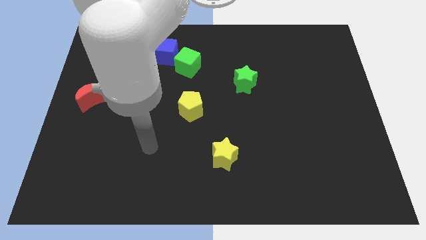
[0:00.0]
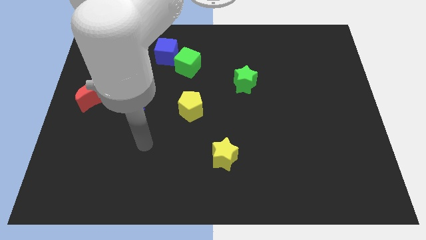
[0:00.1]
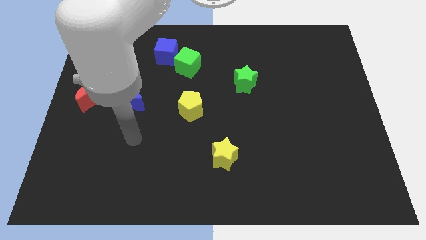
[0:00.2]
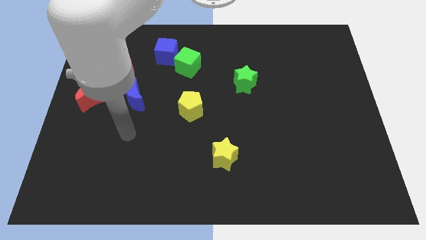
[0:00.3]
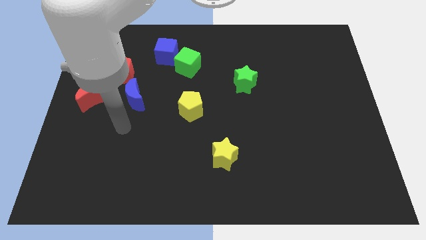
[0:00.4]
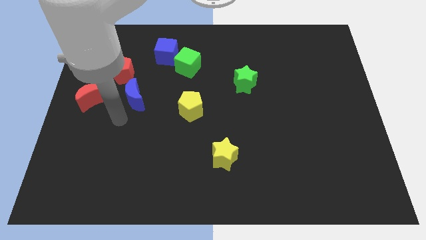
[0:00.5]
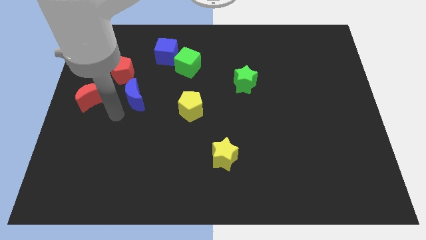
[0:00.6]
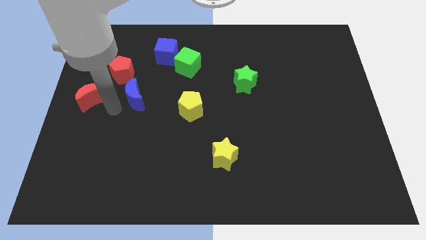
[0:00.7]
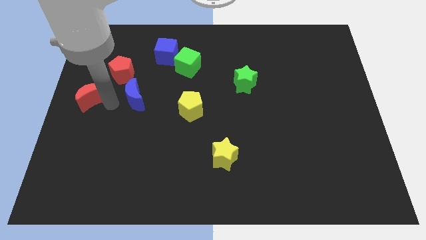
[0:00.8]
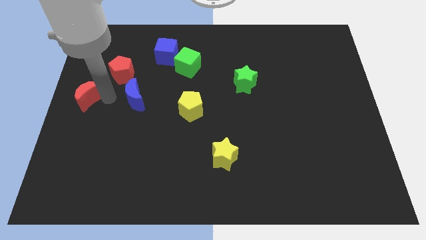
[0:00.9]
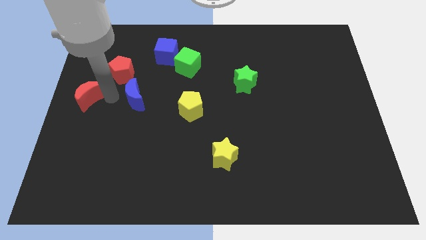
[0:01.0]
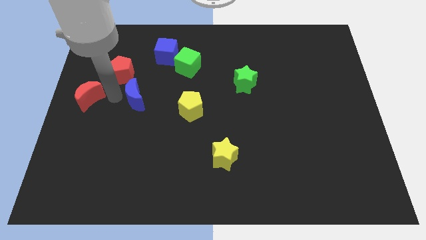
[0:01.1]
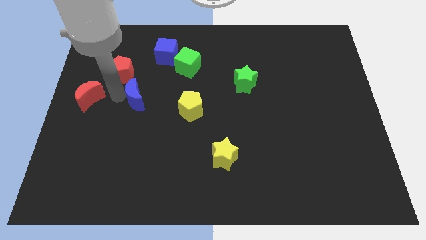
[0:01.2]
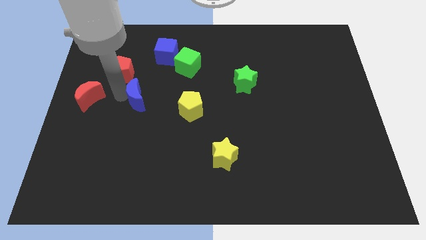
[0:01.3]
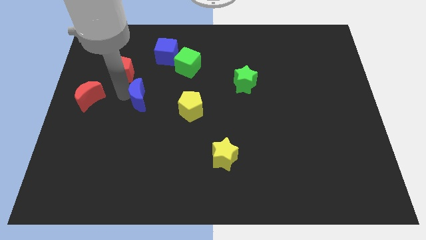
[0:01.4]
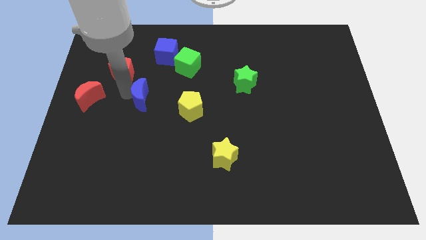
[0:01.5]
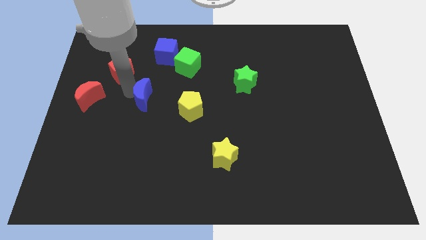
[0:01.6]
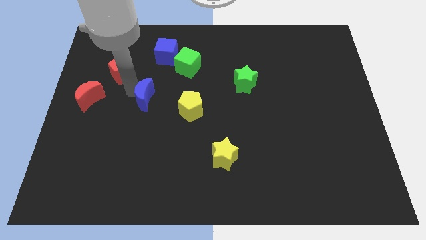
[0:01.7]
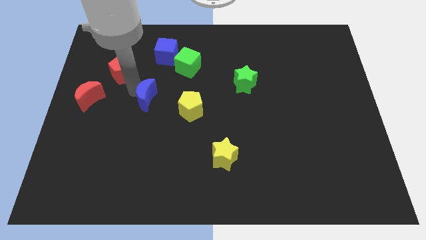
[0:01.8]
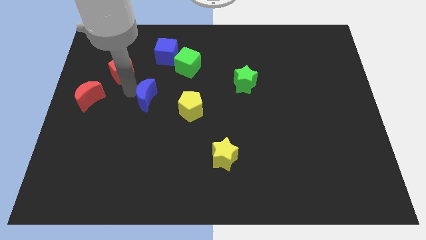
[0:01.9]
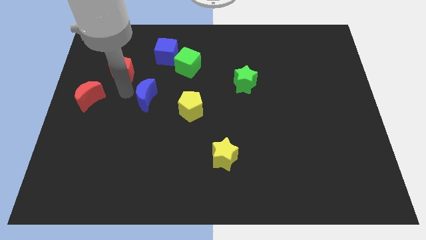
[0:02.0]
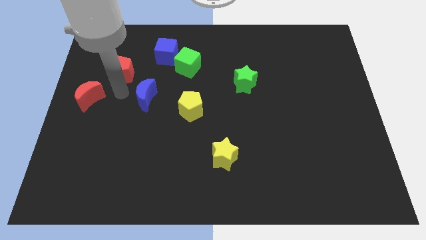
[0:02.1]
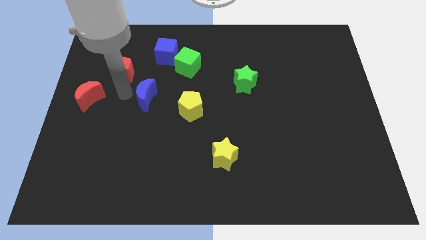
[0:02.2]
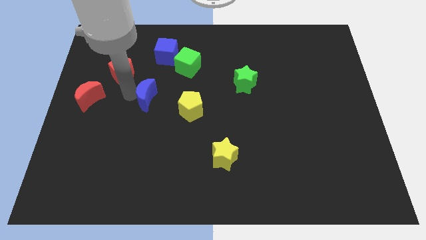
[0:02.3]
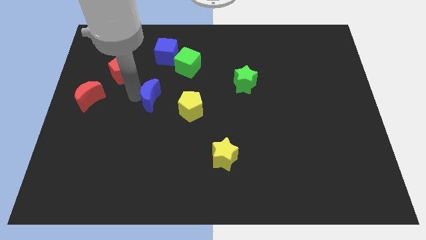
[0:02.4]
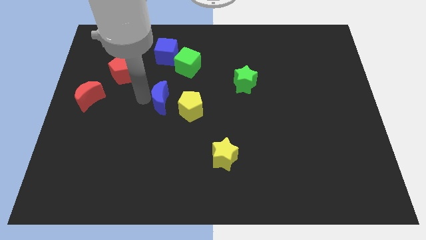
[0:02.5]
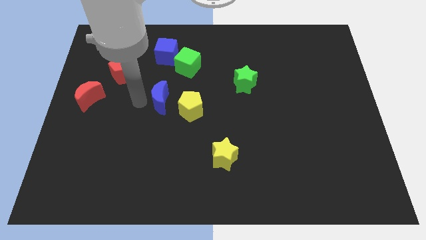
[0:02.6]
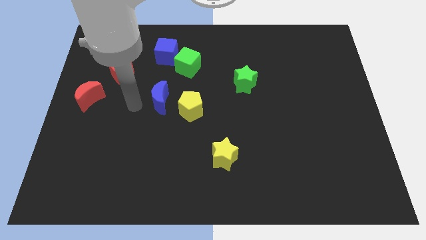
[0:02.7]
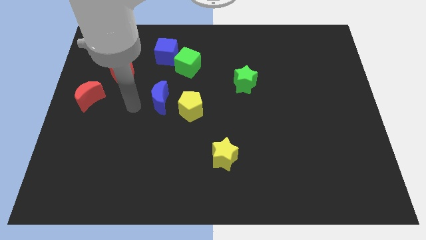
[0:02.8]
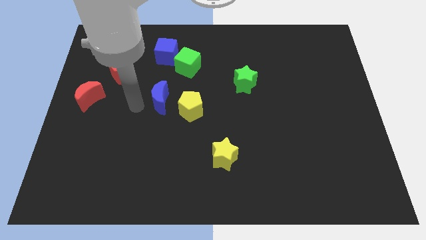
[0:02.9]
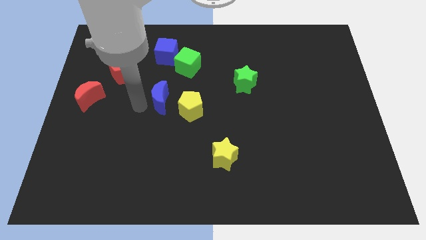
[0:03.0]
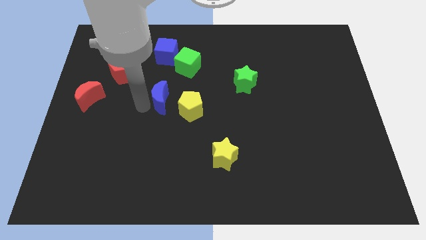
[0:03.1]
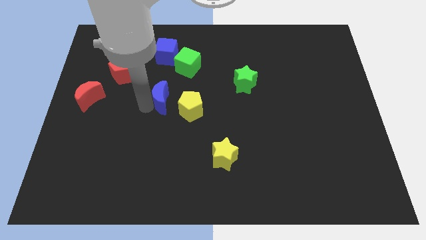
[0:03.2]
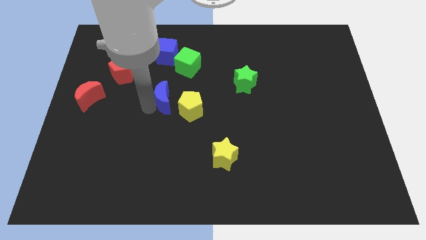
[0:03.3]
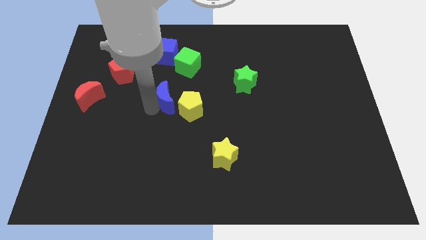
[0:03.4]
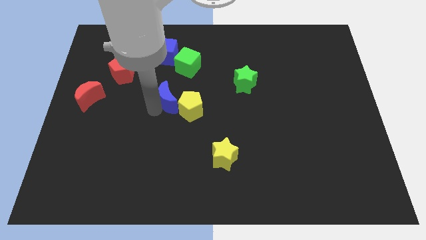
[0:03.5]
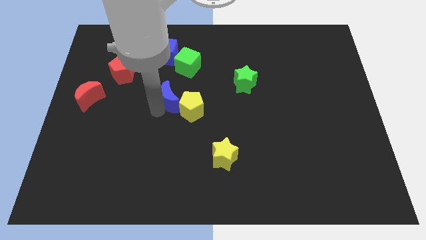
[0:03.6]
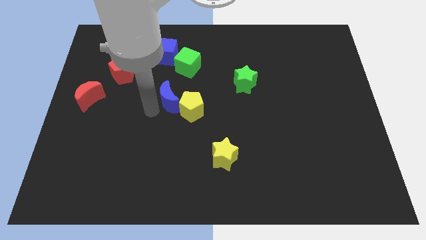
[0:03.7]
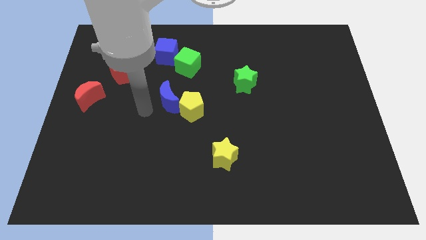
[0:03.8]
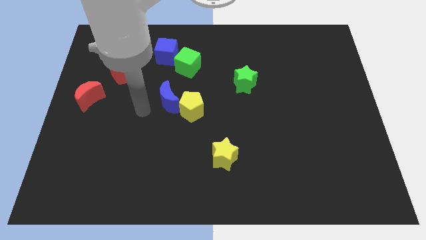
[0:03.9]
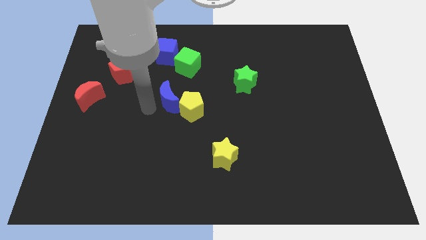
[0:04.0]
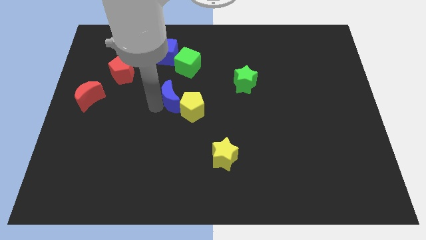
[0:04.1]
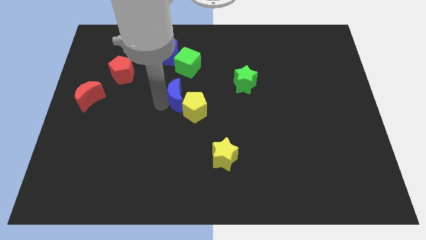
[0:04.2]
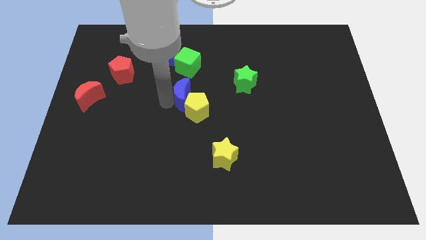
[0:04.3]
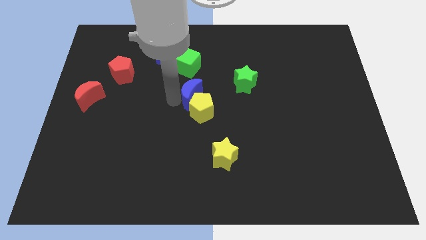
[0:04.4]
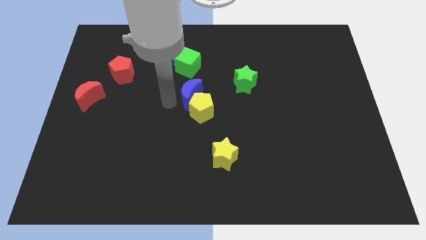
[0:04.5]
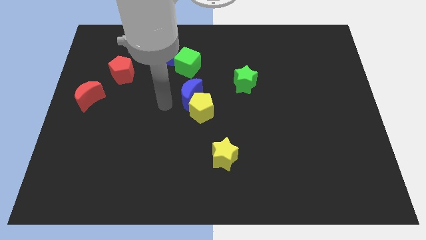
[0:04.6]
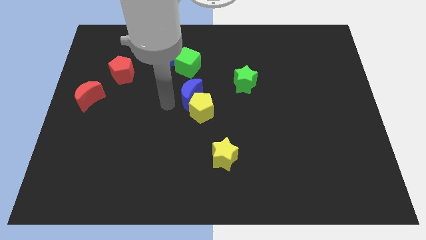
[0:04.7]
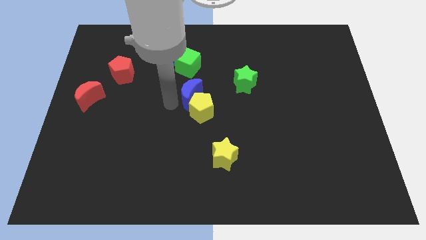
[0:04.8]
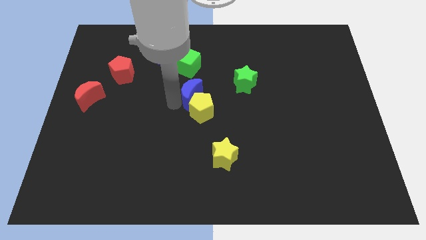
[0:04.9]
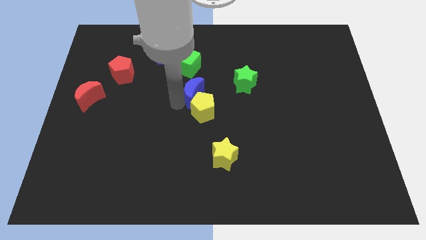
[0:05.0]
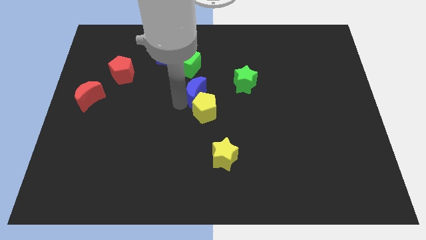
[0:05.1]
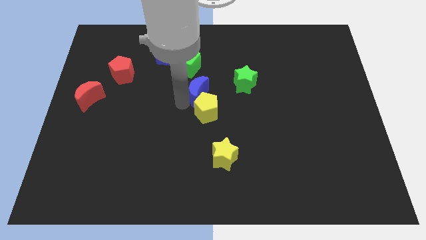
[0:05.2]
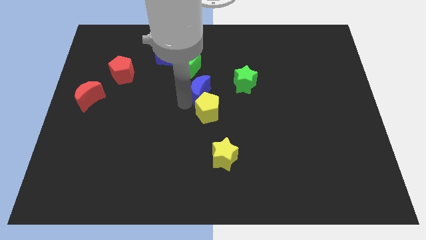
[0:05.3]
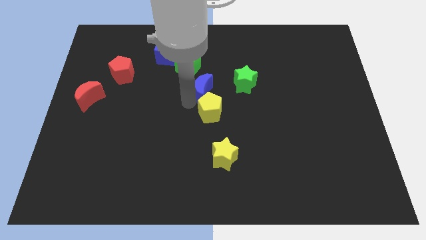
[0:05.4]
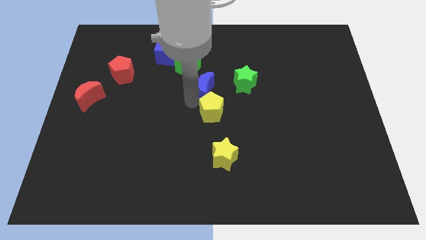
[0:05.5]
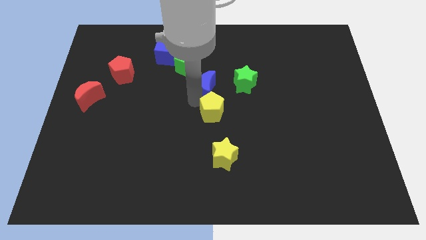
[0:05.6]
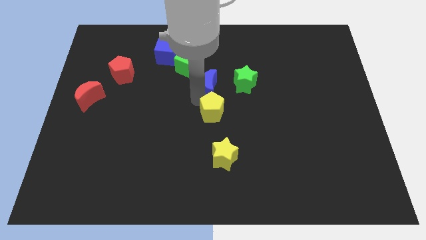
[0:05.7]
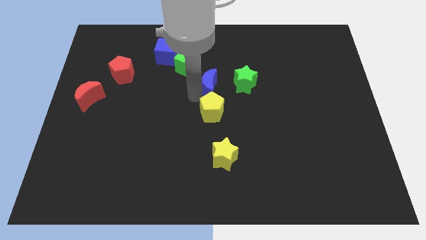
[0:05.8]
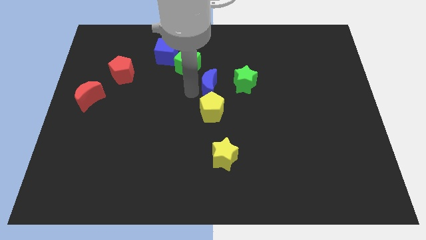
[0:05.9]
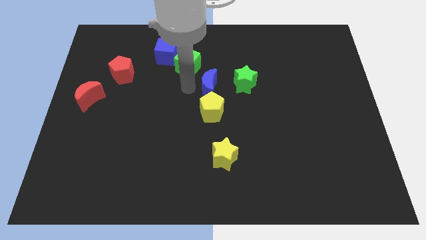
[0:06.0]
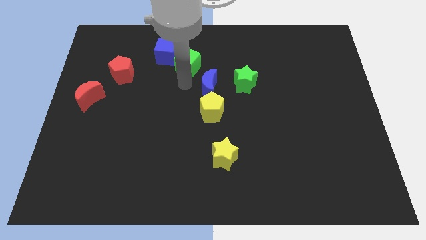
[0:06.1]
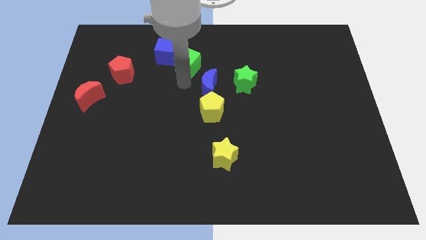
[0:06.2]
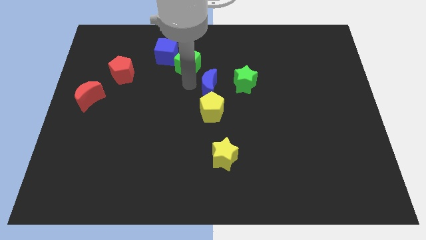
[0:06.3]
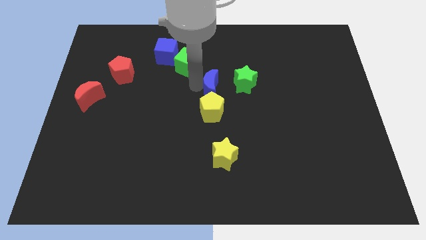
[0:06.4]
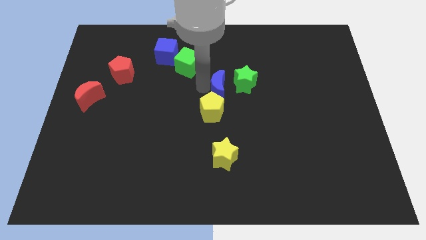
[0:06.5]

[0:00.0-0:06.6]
push the blue moon to the right

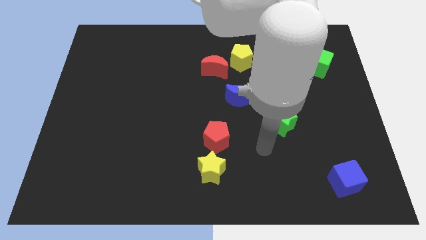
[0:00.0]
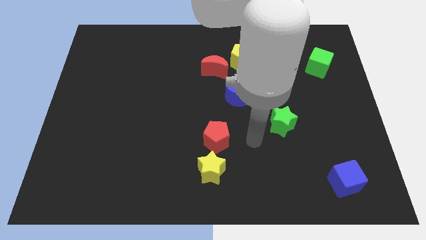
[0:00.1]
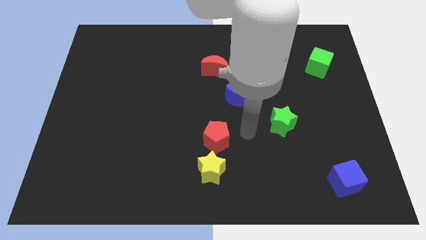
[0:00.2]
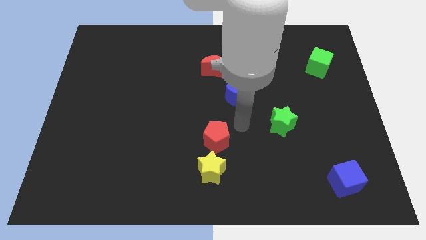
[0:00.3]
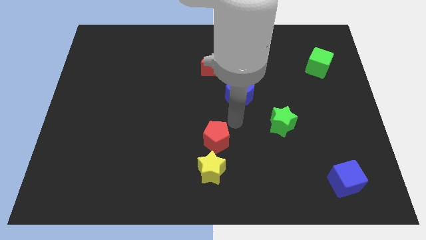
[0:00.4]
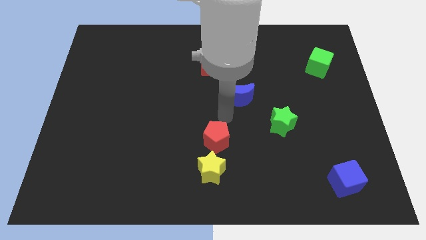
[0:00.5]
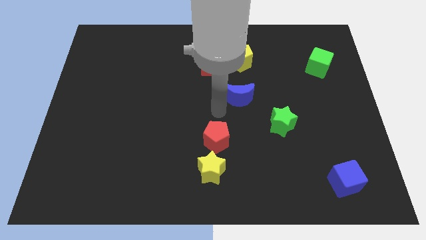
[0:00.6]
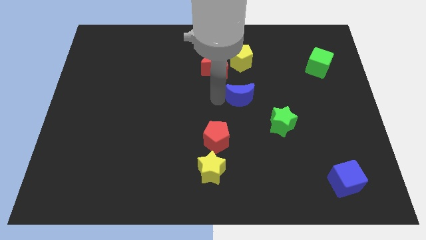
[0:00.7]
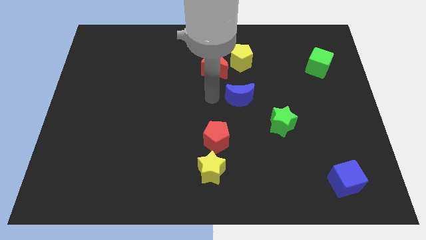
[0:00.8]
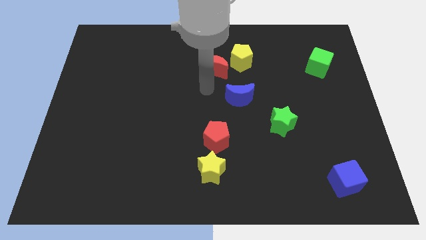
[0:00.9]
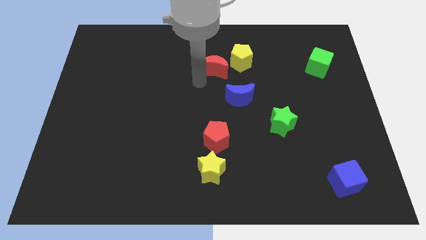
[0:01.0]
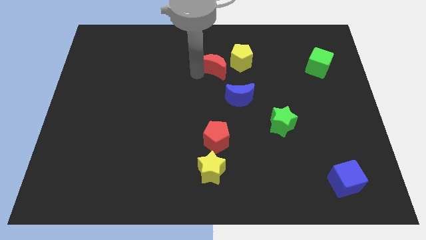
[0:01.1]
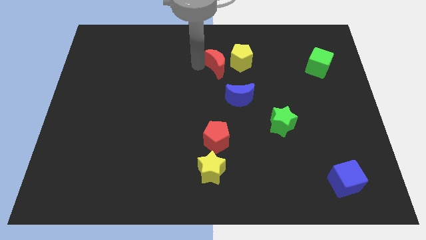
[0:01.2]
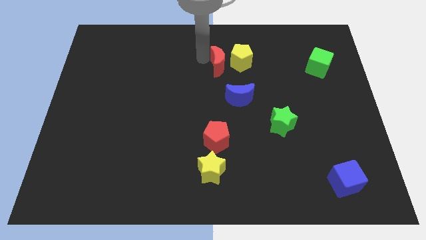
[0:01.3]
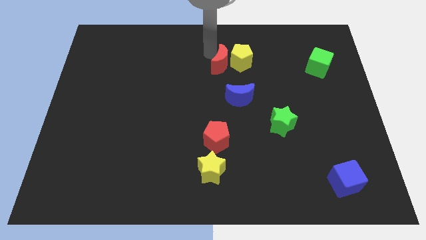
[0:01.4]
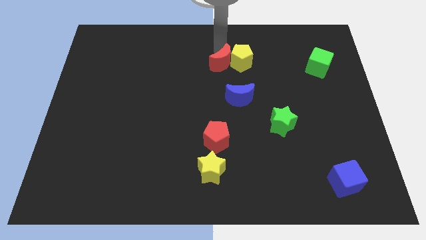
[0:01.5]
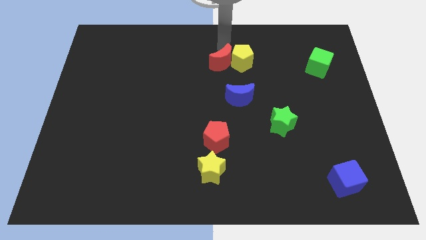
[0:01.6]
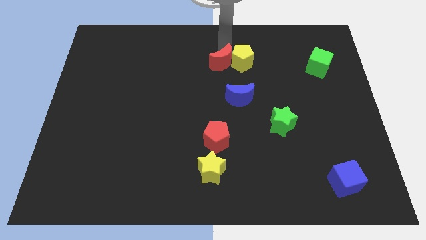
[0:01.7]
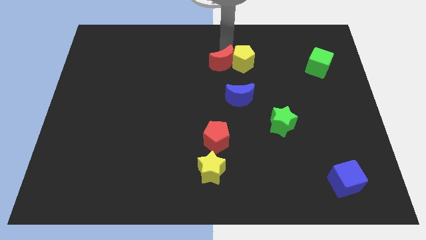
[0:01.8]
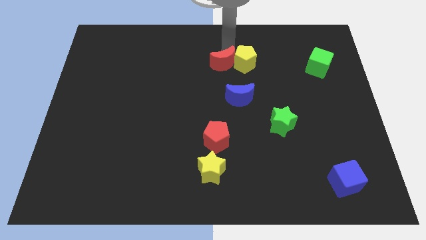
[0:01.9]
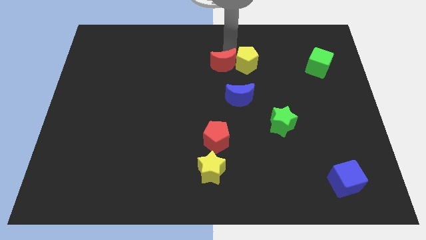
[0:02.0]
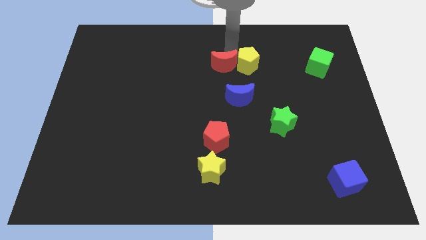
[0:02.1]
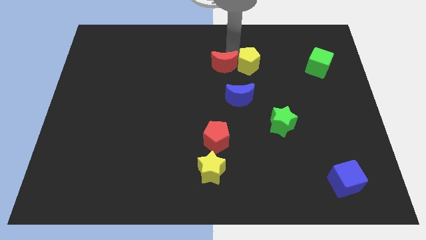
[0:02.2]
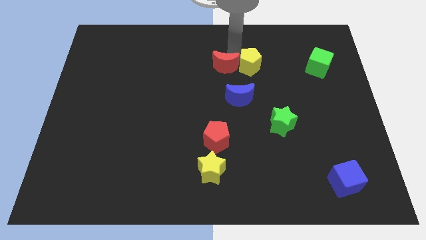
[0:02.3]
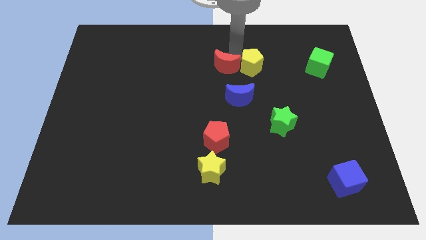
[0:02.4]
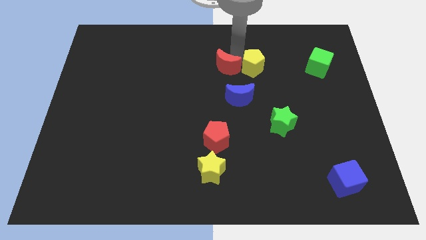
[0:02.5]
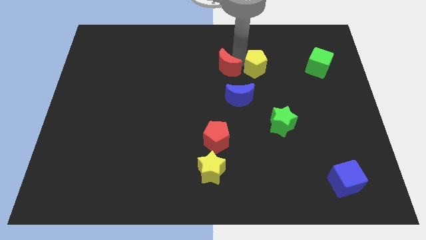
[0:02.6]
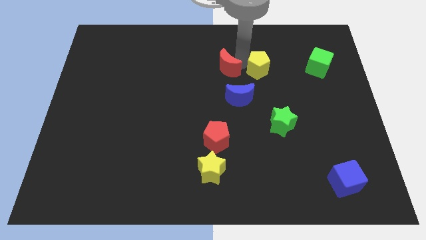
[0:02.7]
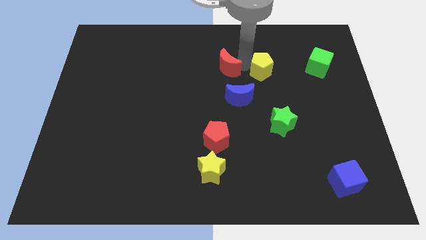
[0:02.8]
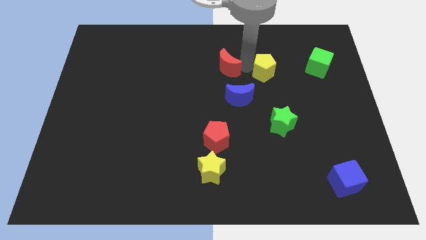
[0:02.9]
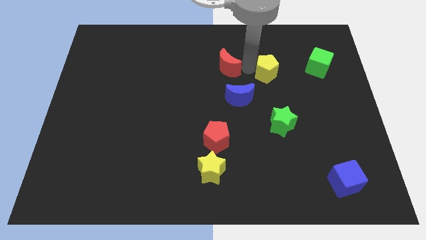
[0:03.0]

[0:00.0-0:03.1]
slightly push the yellow pentagon diagonally down and to the right
